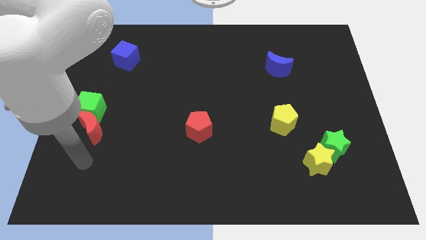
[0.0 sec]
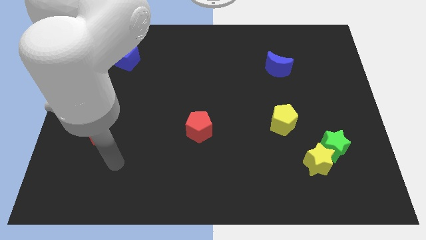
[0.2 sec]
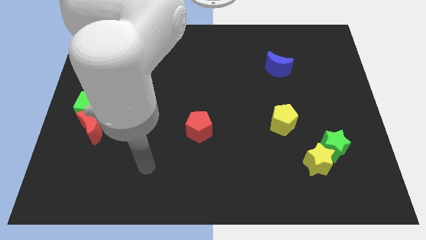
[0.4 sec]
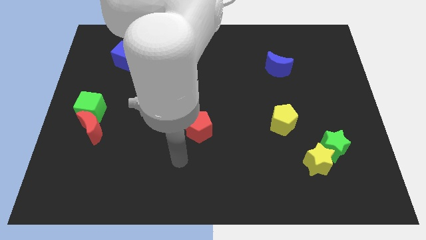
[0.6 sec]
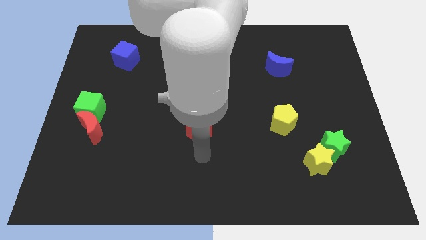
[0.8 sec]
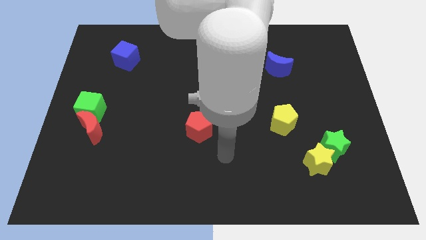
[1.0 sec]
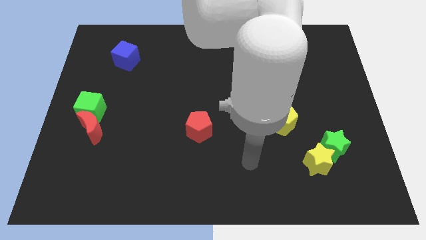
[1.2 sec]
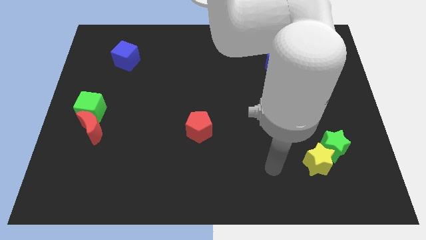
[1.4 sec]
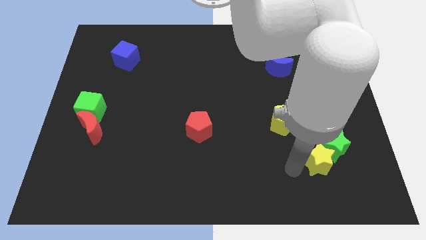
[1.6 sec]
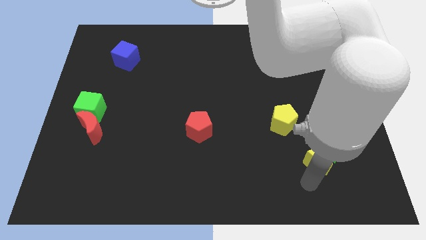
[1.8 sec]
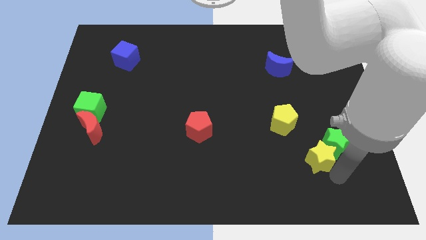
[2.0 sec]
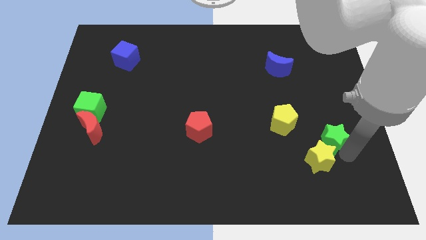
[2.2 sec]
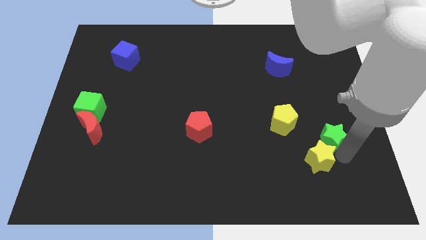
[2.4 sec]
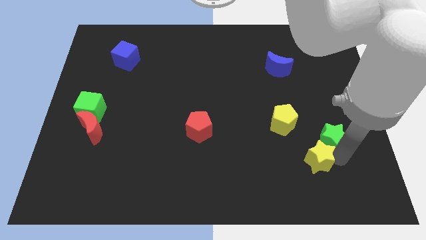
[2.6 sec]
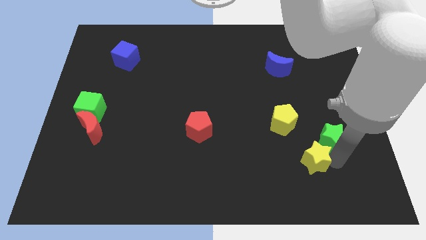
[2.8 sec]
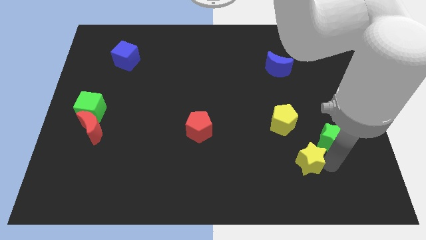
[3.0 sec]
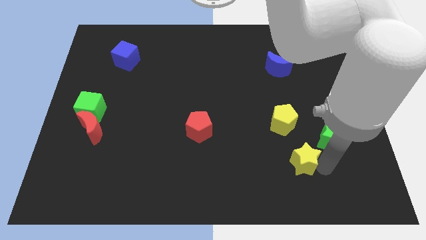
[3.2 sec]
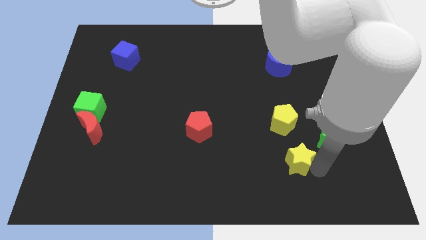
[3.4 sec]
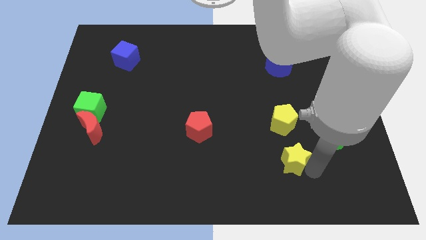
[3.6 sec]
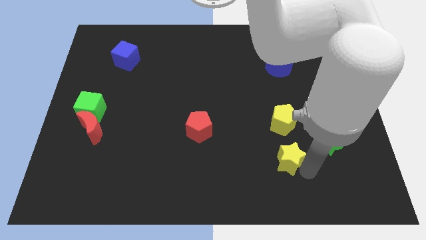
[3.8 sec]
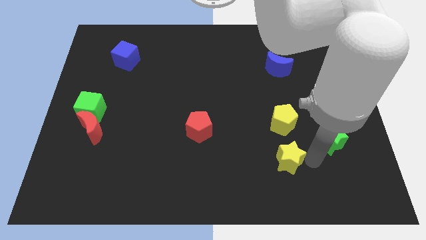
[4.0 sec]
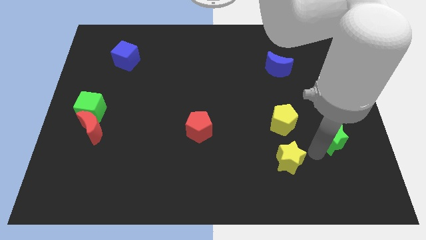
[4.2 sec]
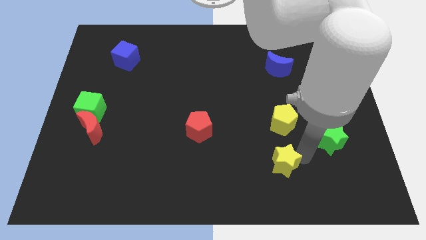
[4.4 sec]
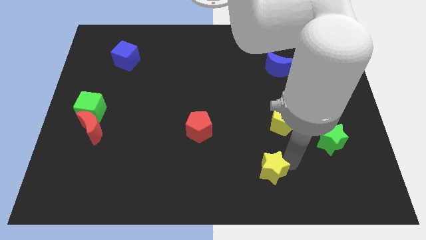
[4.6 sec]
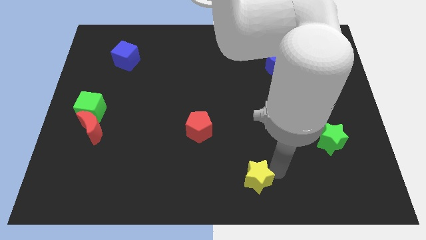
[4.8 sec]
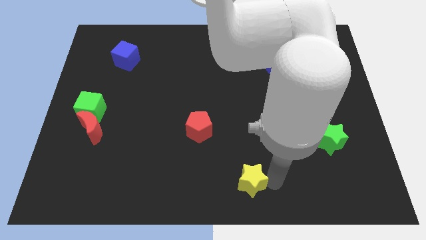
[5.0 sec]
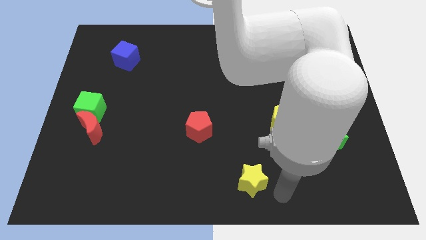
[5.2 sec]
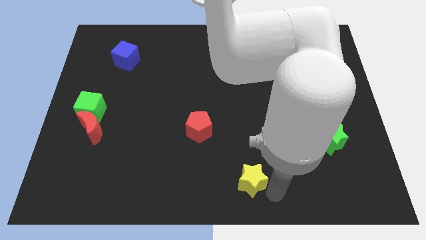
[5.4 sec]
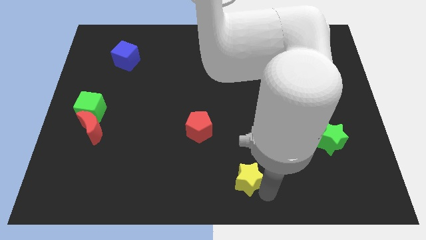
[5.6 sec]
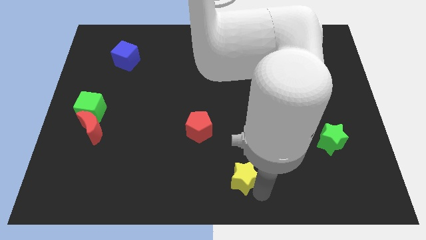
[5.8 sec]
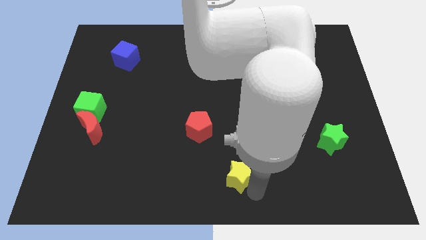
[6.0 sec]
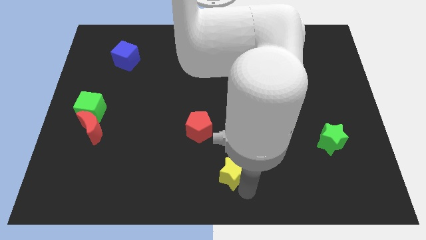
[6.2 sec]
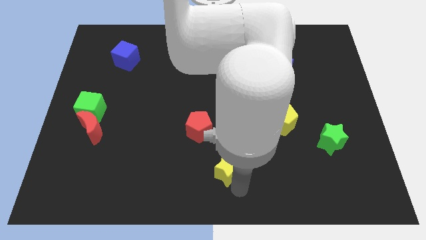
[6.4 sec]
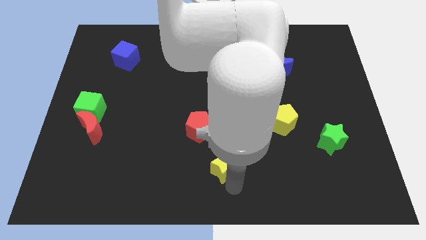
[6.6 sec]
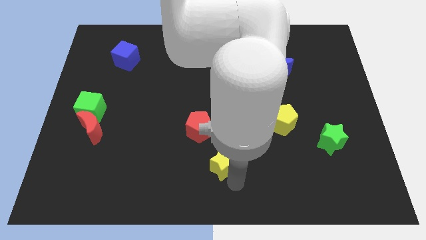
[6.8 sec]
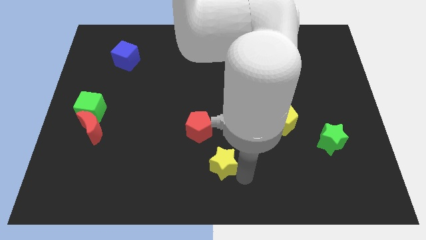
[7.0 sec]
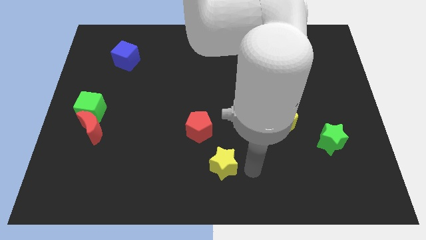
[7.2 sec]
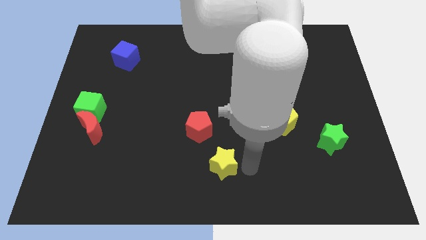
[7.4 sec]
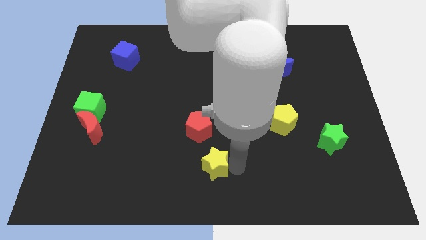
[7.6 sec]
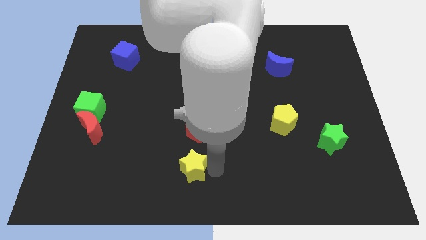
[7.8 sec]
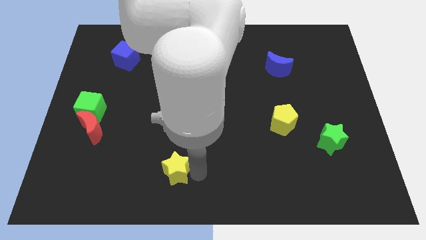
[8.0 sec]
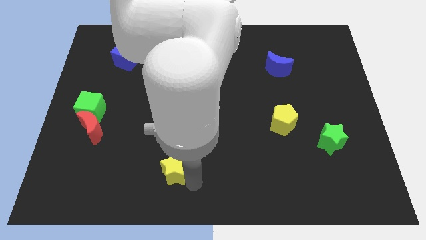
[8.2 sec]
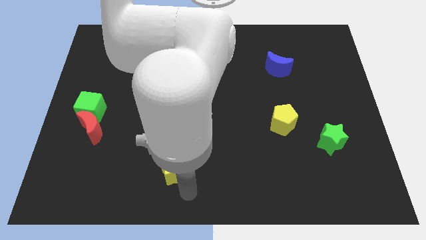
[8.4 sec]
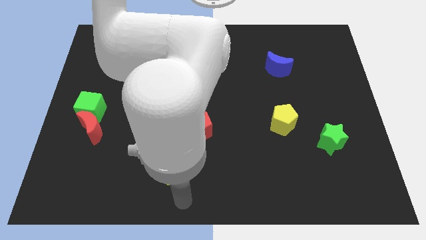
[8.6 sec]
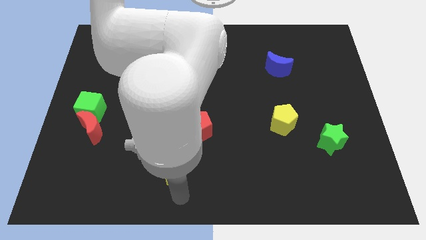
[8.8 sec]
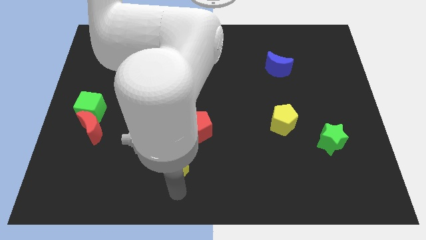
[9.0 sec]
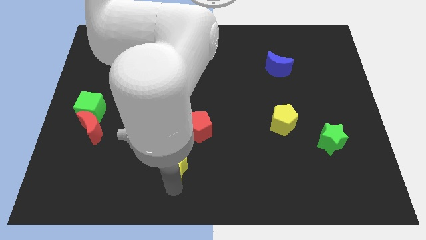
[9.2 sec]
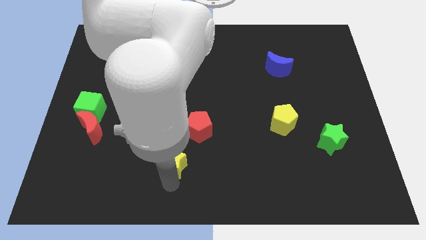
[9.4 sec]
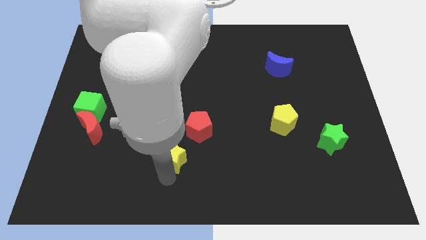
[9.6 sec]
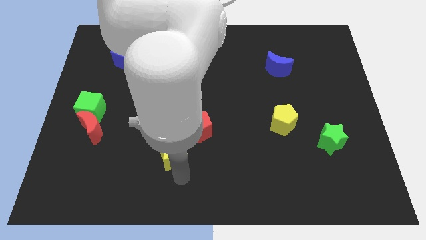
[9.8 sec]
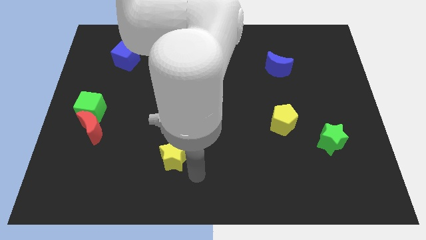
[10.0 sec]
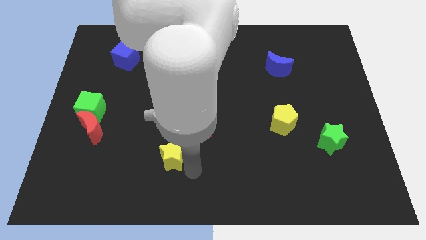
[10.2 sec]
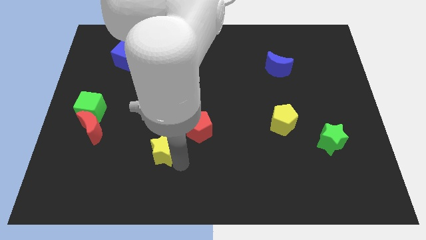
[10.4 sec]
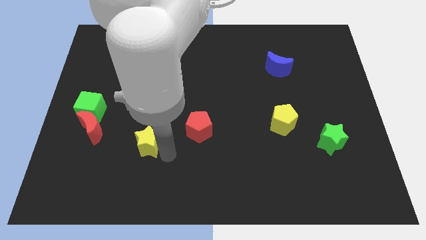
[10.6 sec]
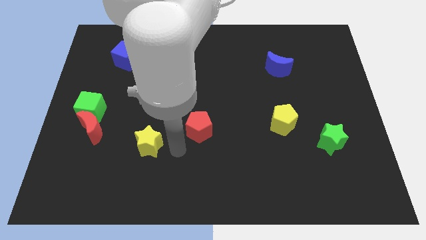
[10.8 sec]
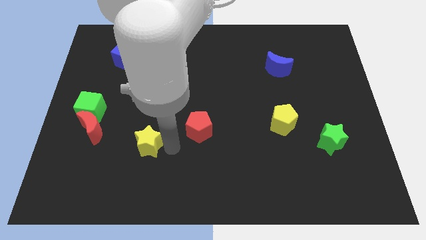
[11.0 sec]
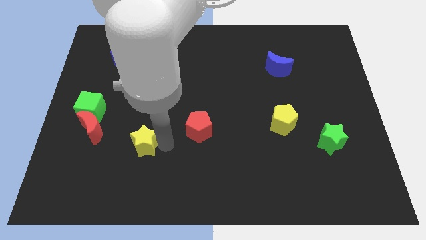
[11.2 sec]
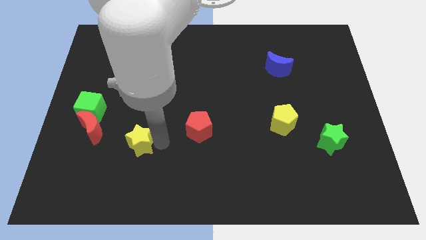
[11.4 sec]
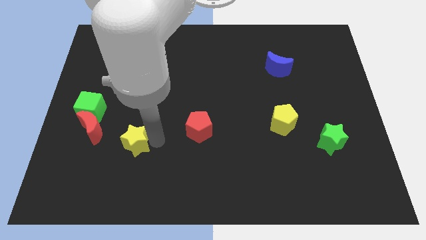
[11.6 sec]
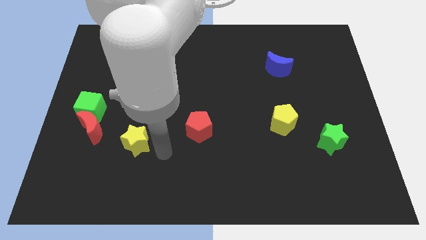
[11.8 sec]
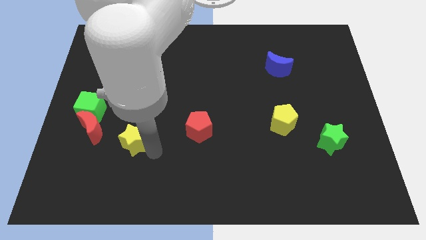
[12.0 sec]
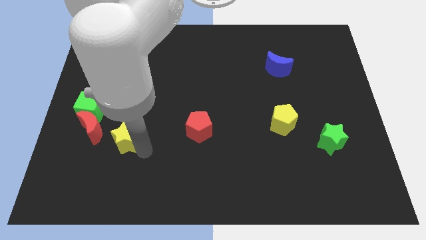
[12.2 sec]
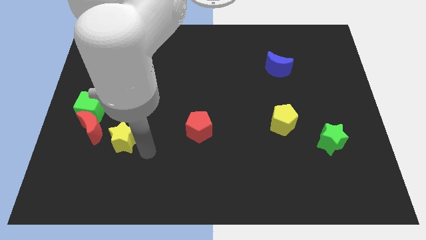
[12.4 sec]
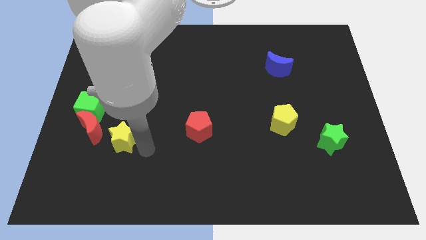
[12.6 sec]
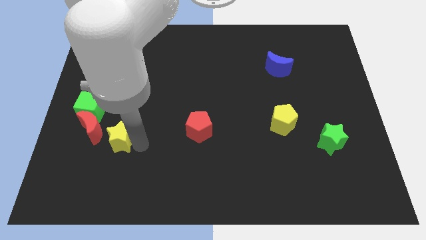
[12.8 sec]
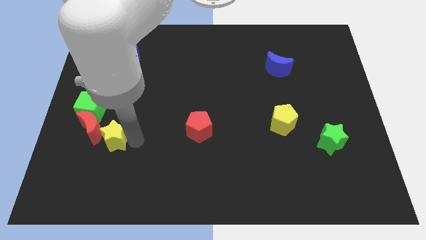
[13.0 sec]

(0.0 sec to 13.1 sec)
push the yellow star next to the red moon
